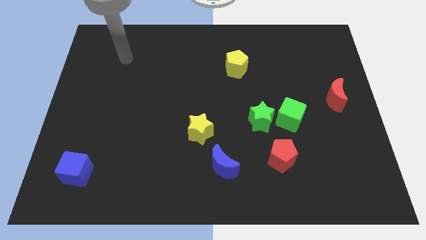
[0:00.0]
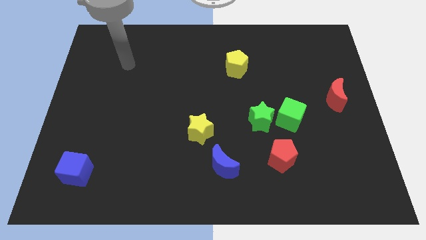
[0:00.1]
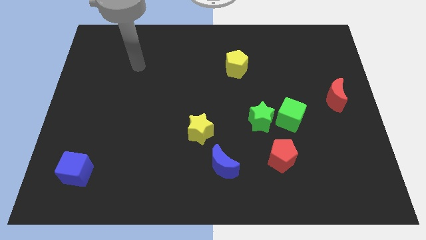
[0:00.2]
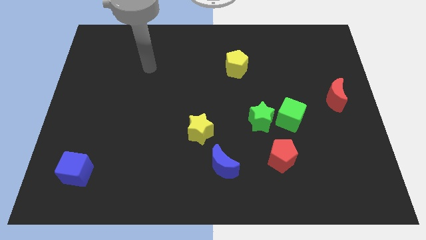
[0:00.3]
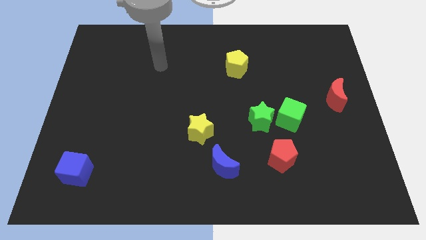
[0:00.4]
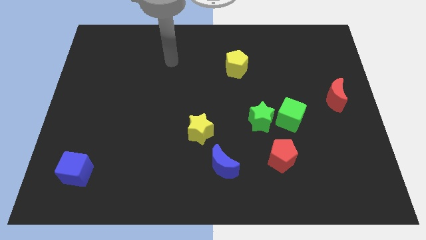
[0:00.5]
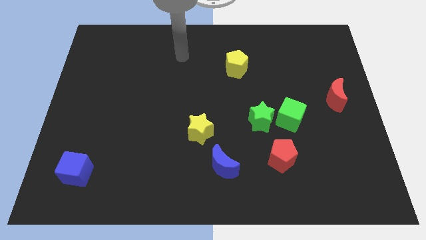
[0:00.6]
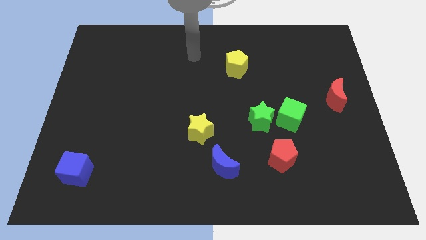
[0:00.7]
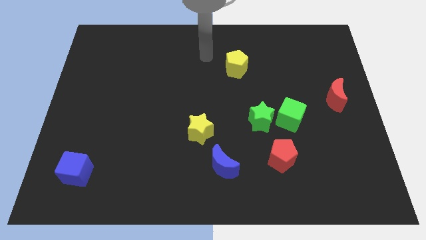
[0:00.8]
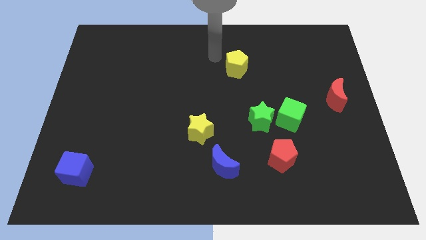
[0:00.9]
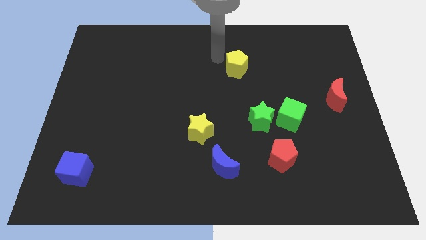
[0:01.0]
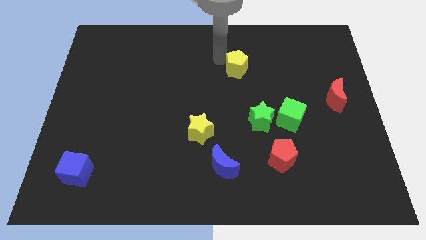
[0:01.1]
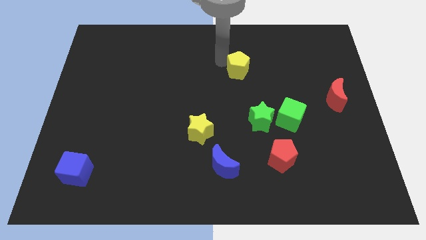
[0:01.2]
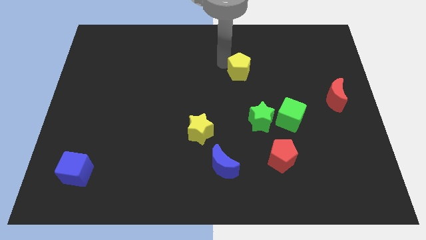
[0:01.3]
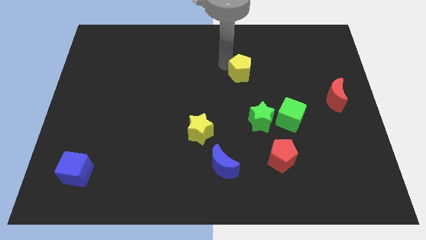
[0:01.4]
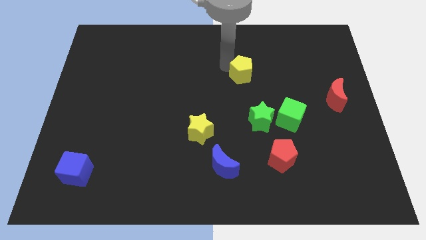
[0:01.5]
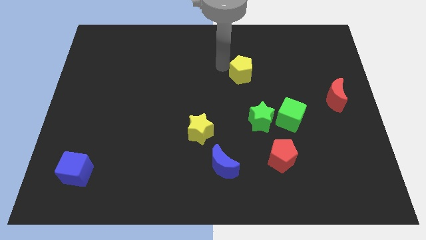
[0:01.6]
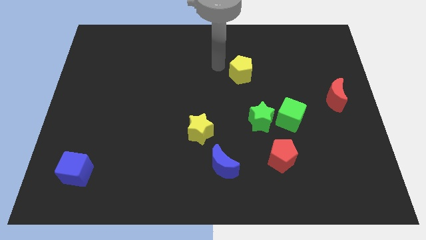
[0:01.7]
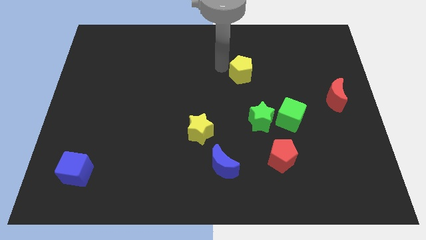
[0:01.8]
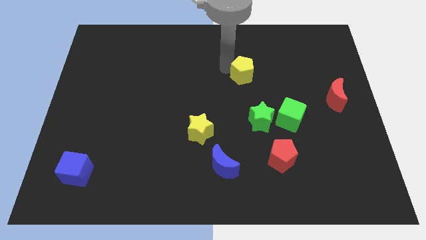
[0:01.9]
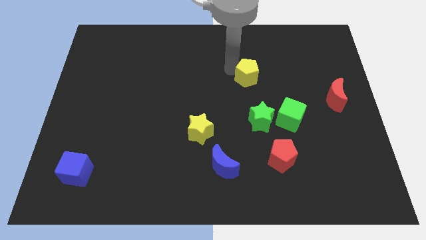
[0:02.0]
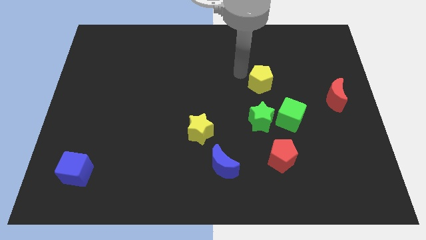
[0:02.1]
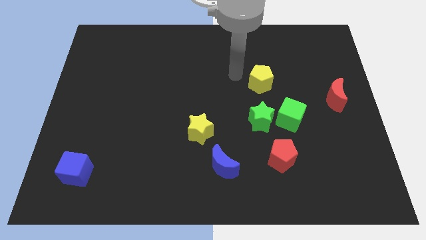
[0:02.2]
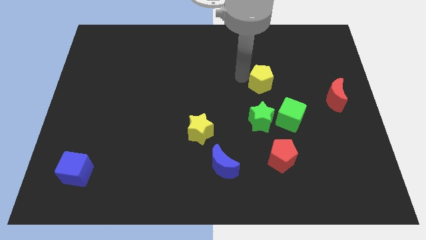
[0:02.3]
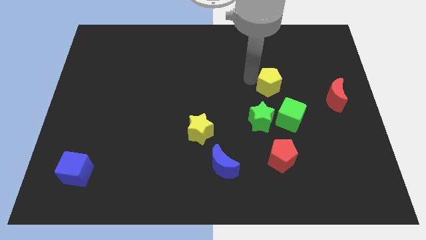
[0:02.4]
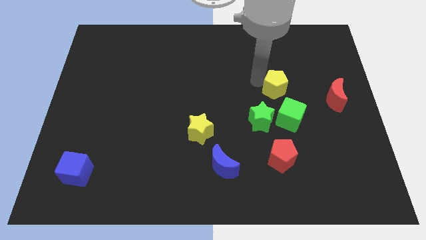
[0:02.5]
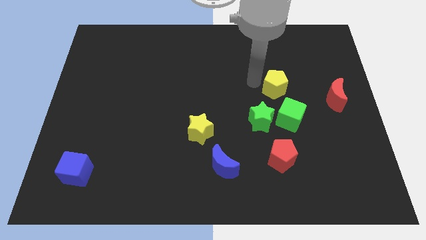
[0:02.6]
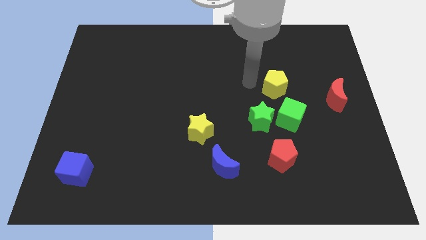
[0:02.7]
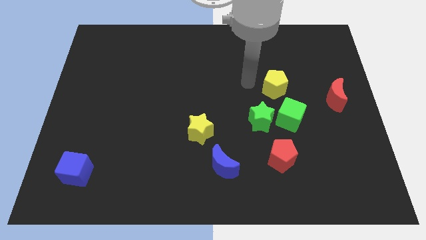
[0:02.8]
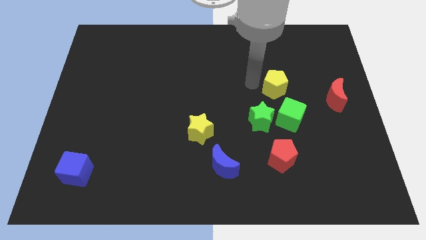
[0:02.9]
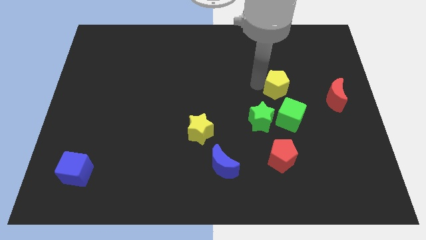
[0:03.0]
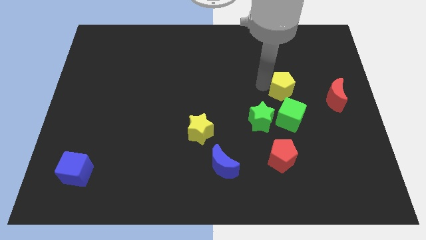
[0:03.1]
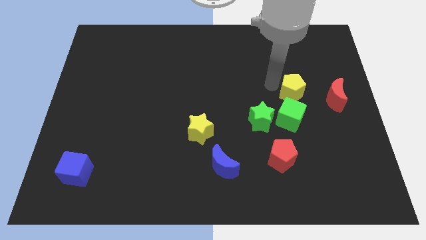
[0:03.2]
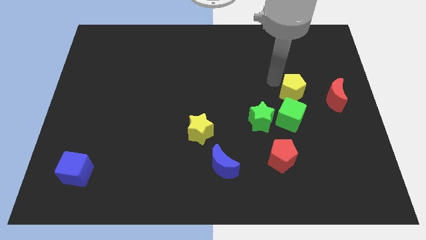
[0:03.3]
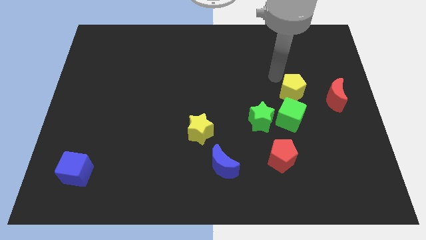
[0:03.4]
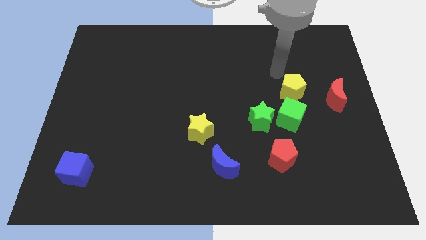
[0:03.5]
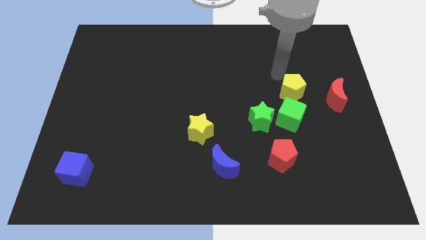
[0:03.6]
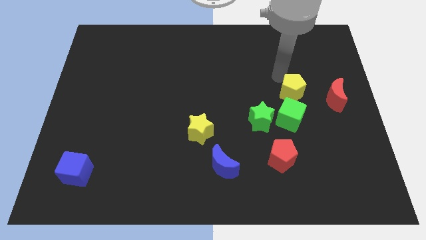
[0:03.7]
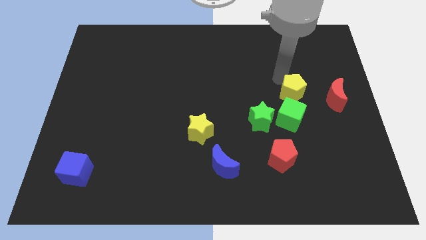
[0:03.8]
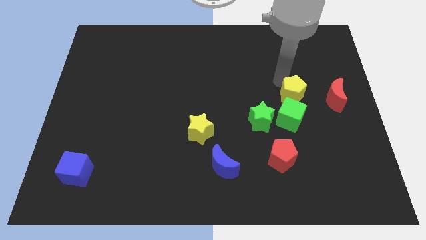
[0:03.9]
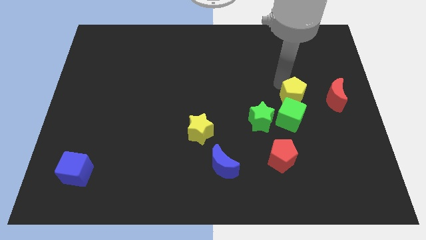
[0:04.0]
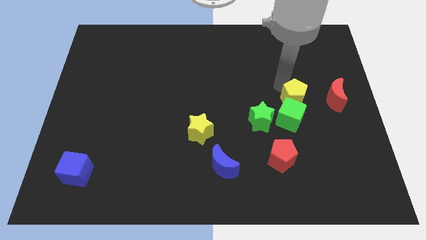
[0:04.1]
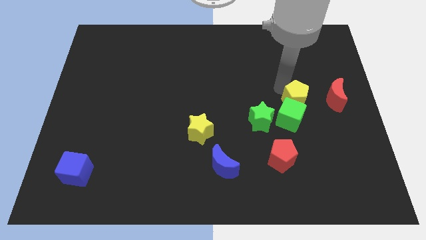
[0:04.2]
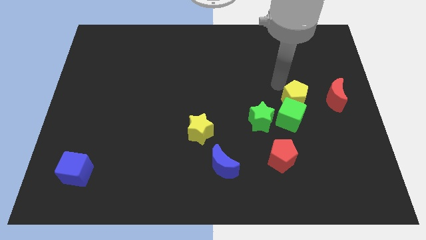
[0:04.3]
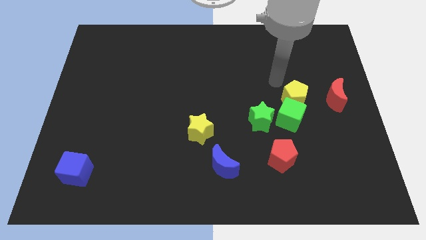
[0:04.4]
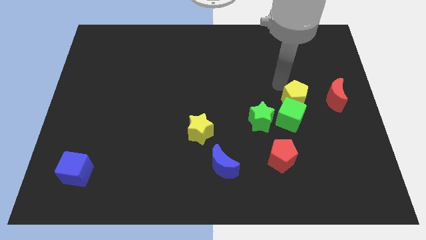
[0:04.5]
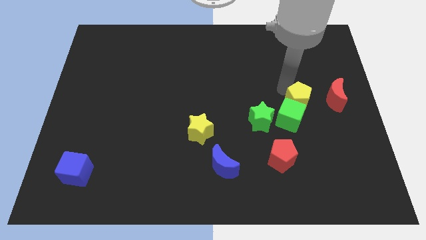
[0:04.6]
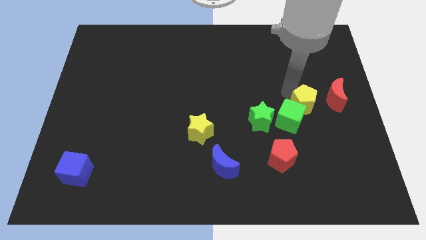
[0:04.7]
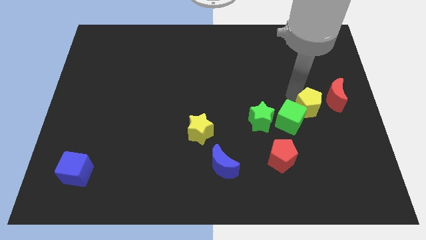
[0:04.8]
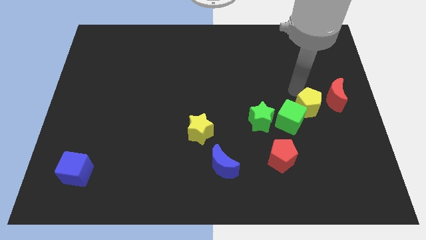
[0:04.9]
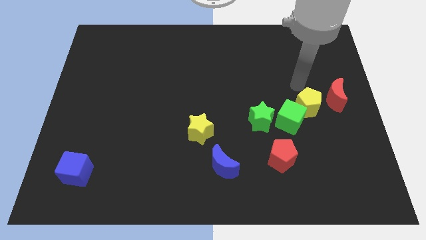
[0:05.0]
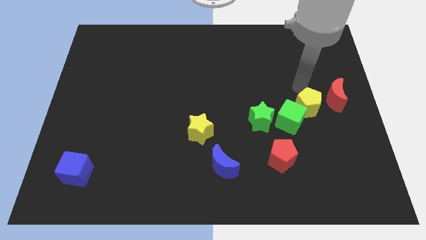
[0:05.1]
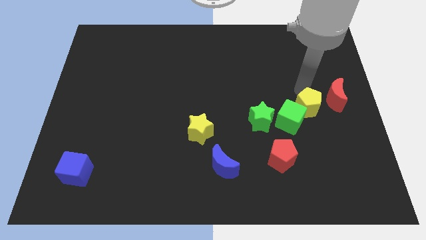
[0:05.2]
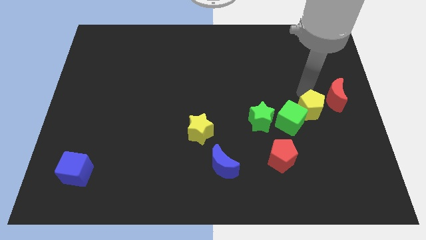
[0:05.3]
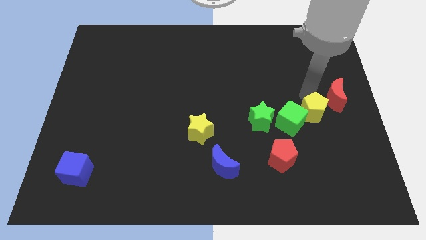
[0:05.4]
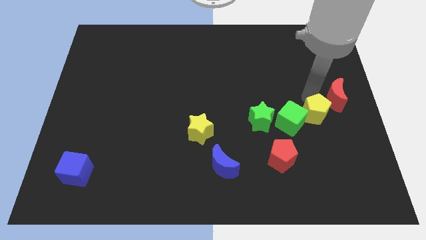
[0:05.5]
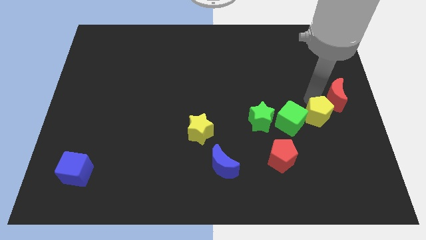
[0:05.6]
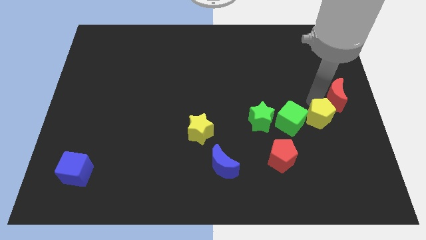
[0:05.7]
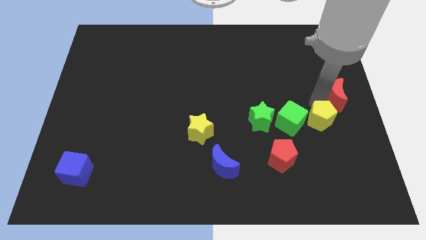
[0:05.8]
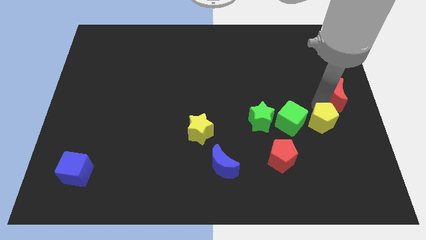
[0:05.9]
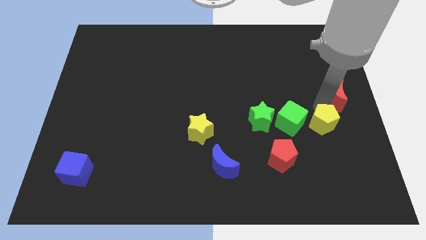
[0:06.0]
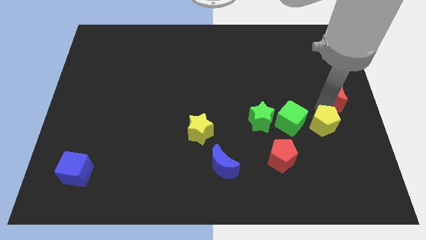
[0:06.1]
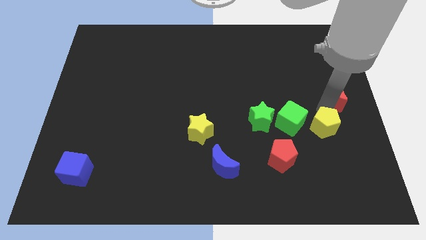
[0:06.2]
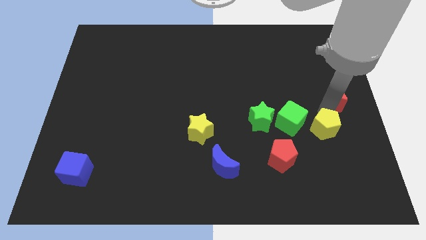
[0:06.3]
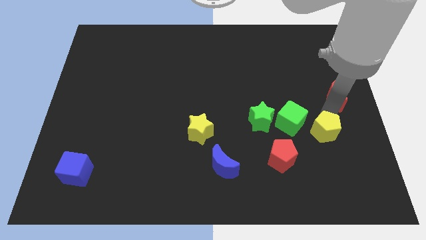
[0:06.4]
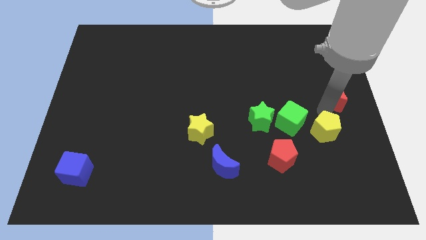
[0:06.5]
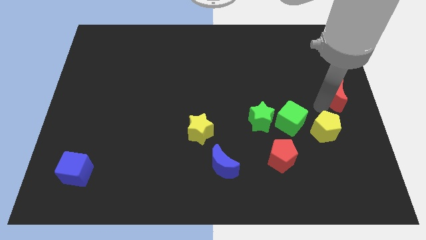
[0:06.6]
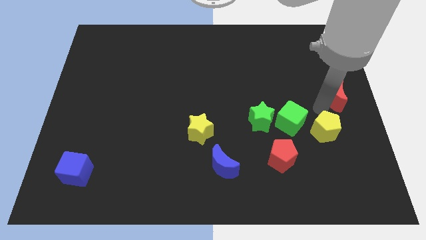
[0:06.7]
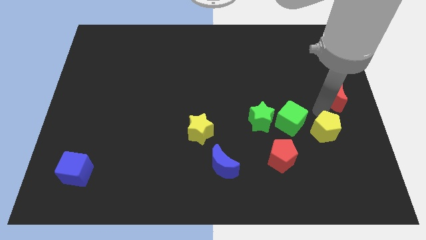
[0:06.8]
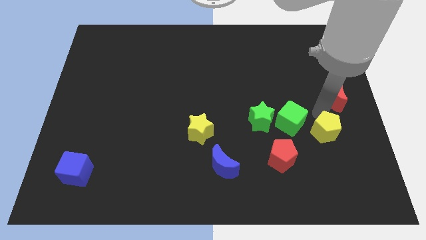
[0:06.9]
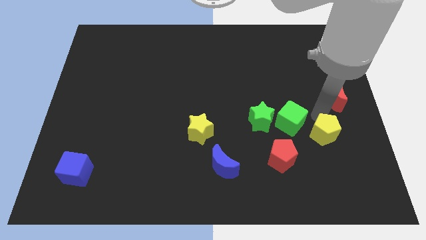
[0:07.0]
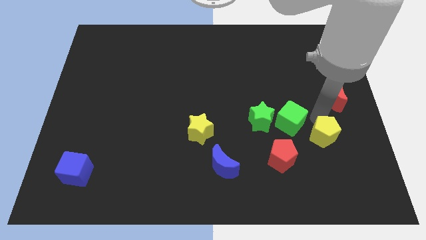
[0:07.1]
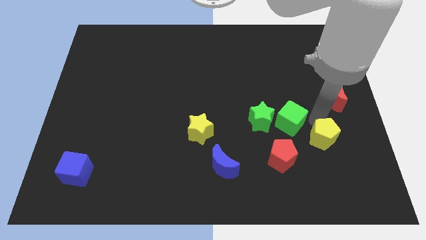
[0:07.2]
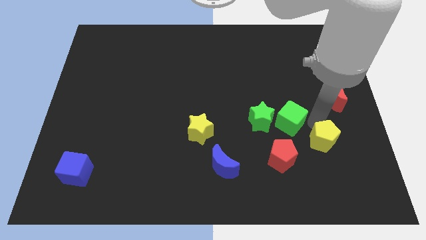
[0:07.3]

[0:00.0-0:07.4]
move the yellow pentagon right of the red pentagon
